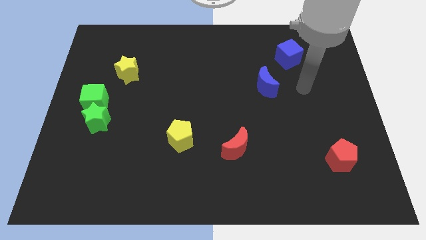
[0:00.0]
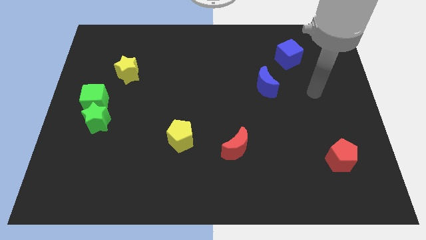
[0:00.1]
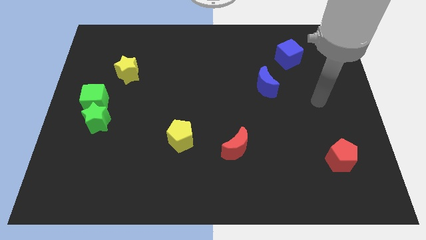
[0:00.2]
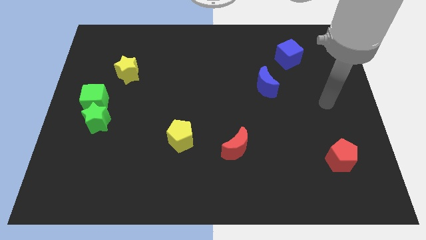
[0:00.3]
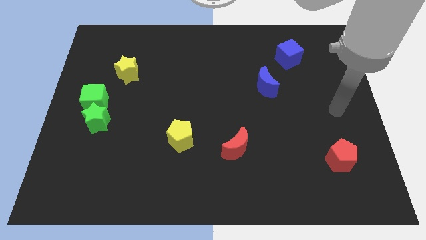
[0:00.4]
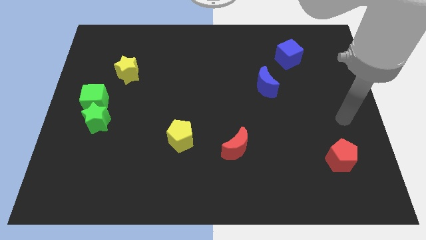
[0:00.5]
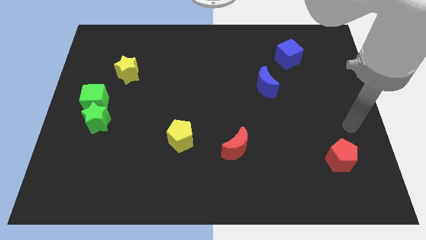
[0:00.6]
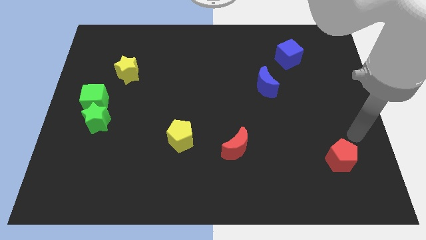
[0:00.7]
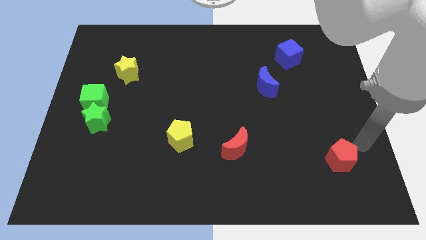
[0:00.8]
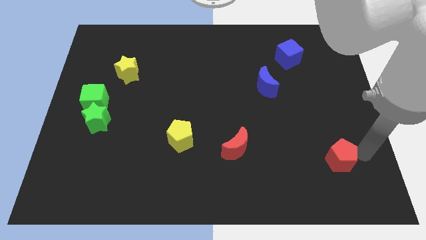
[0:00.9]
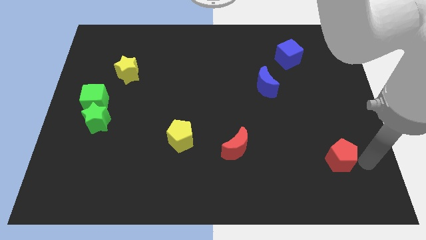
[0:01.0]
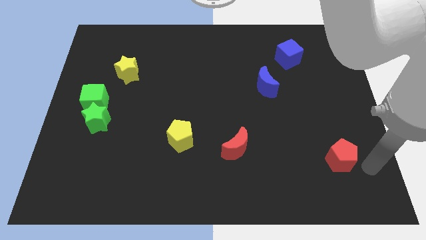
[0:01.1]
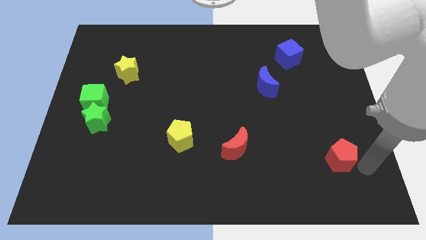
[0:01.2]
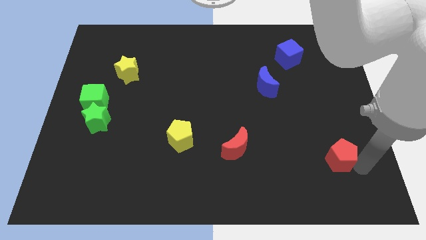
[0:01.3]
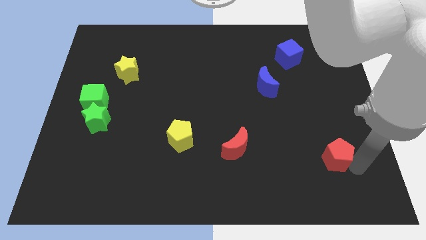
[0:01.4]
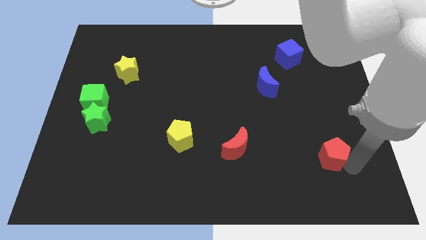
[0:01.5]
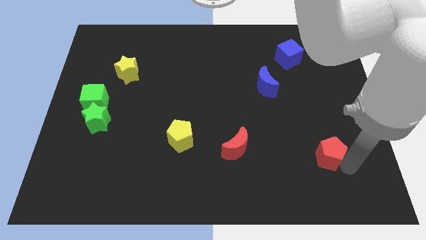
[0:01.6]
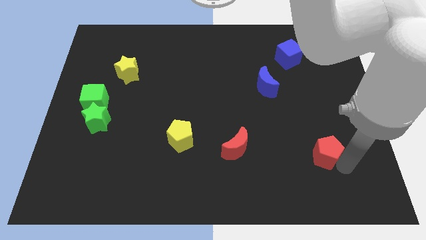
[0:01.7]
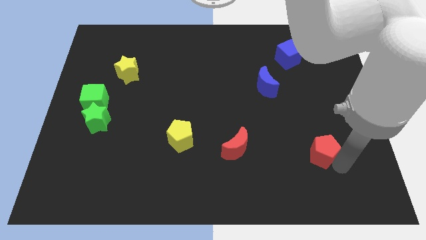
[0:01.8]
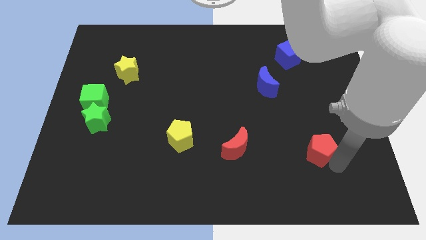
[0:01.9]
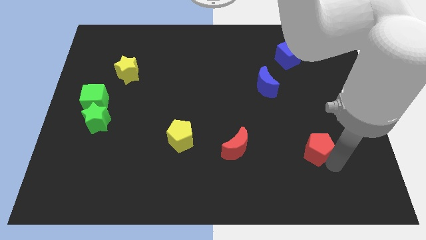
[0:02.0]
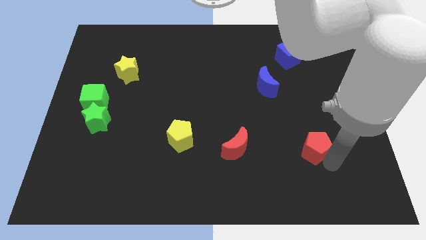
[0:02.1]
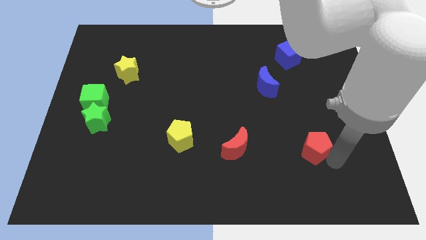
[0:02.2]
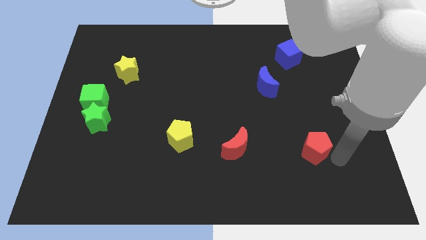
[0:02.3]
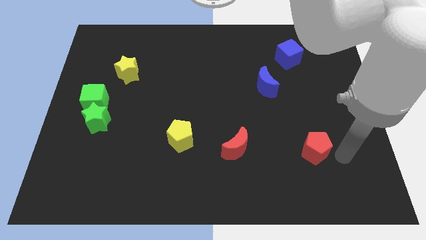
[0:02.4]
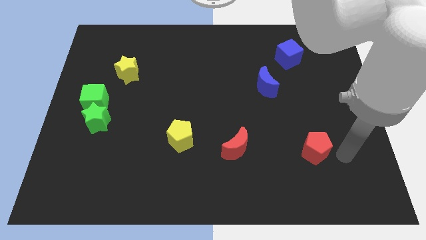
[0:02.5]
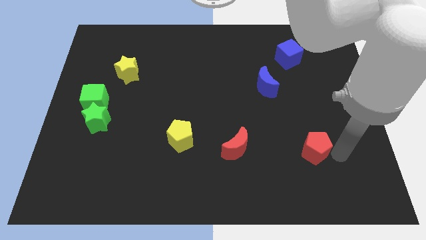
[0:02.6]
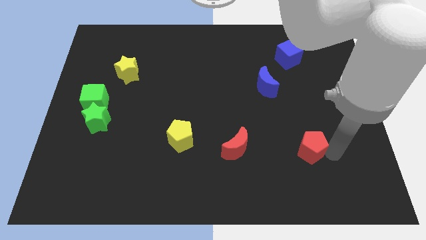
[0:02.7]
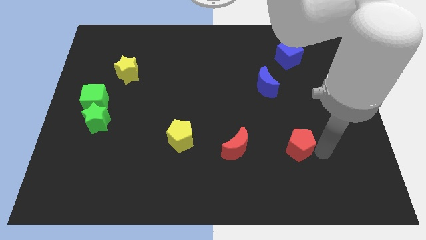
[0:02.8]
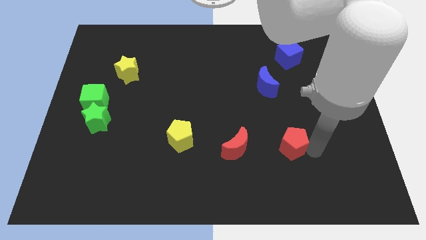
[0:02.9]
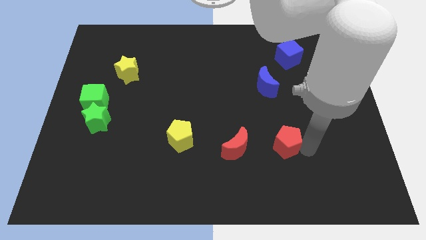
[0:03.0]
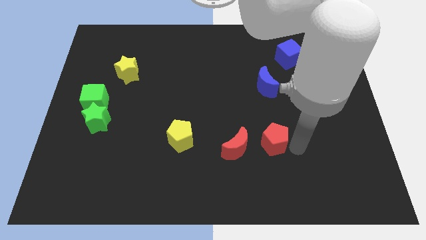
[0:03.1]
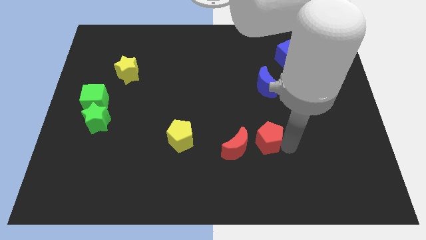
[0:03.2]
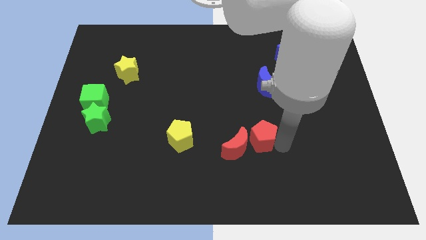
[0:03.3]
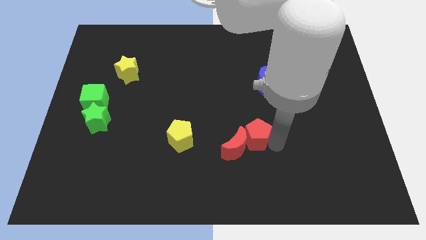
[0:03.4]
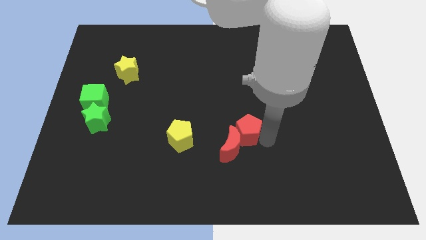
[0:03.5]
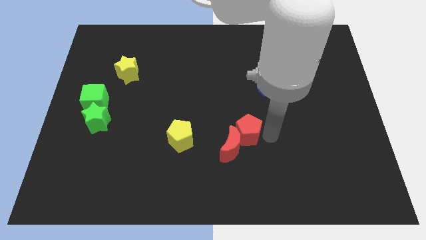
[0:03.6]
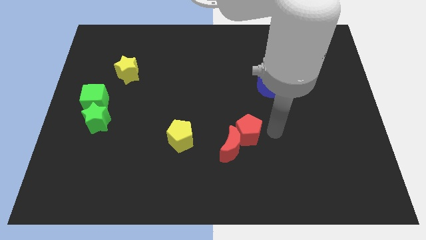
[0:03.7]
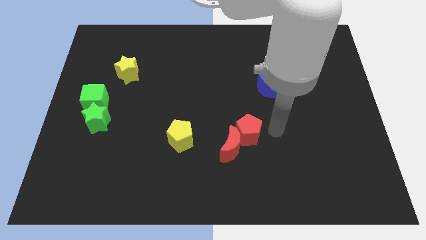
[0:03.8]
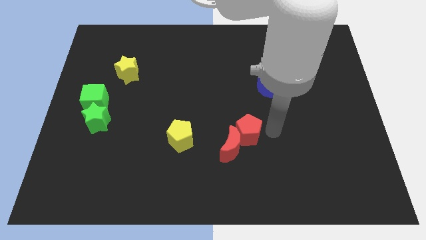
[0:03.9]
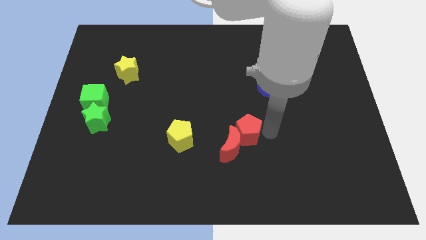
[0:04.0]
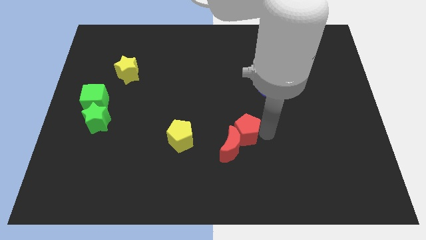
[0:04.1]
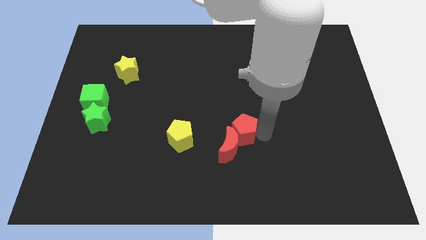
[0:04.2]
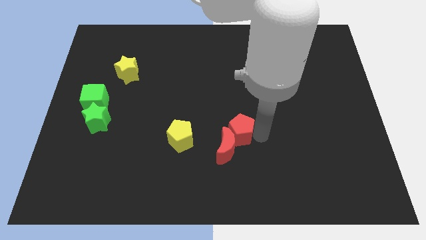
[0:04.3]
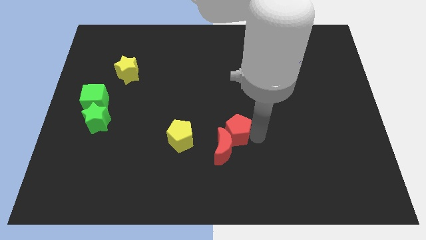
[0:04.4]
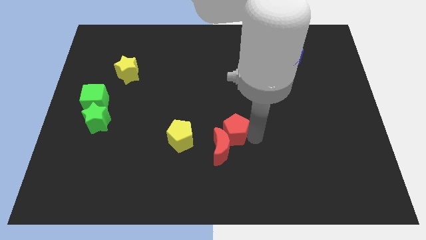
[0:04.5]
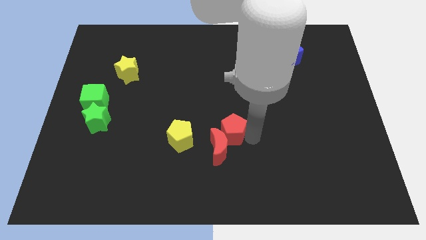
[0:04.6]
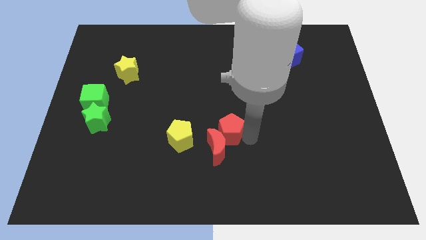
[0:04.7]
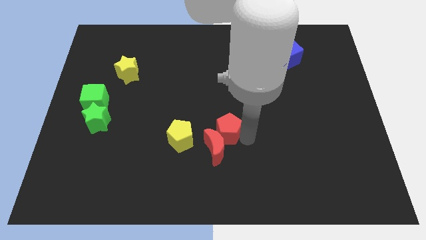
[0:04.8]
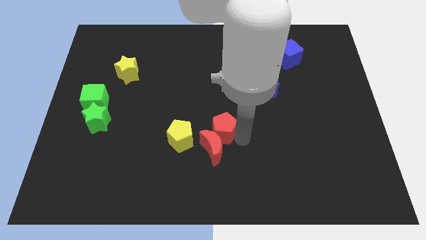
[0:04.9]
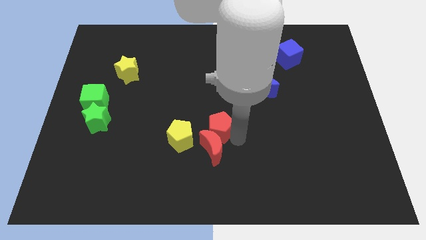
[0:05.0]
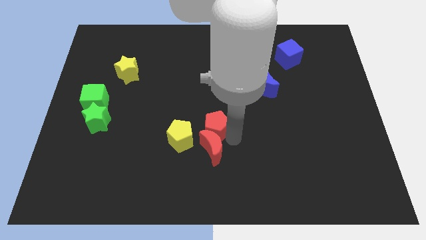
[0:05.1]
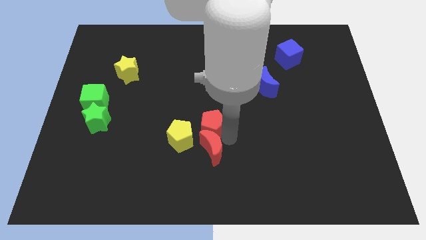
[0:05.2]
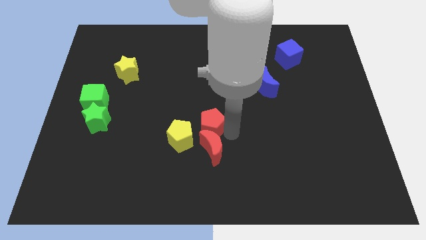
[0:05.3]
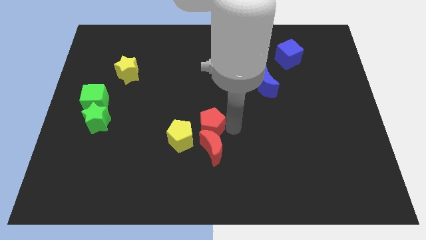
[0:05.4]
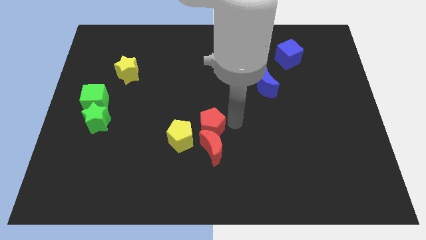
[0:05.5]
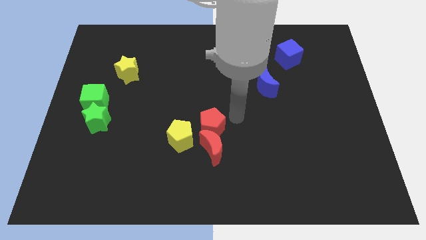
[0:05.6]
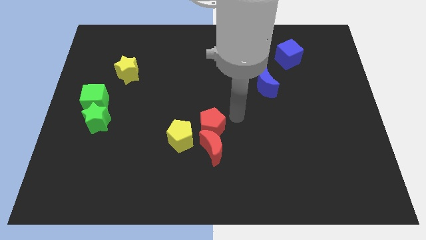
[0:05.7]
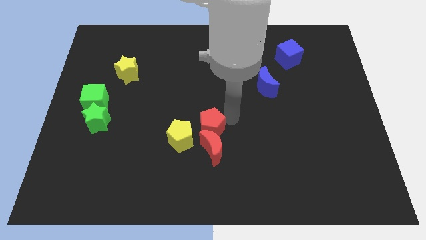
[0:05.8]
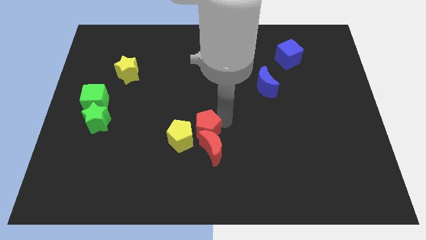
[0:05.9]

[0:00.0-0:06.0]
put the red pentagon to the yellow pentagon

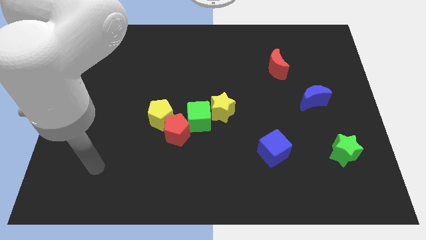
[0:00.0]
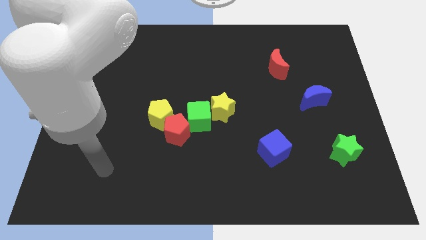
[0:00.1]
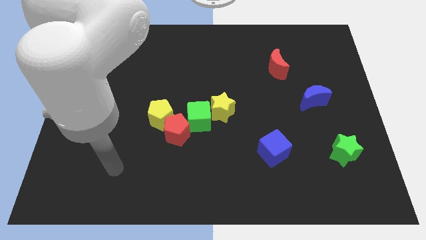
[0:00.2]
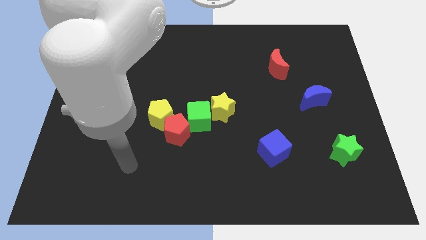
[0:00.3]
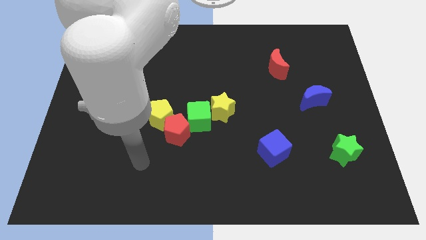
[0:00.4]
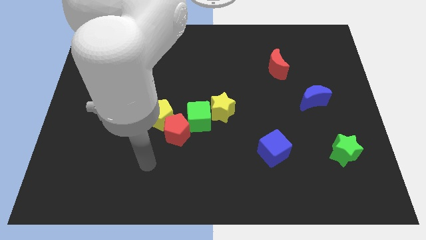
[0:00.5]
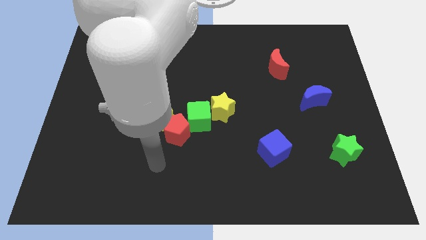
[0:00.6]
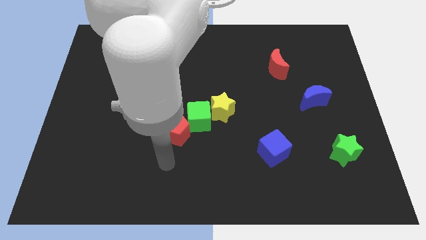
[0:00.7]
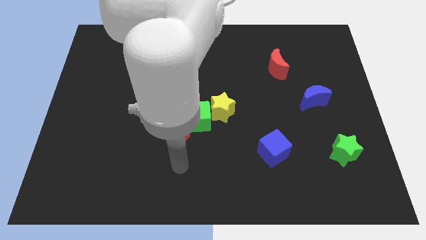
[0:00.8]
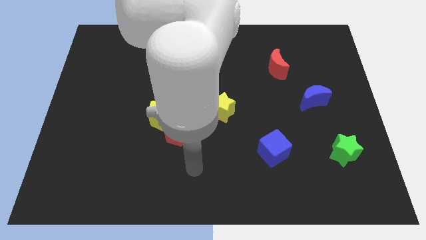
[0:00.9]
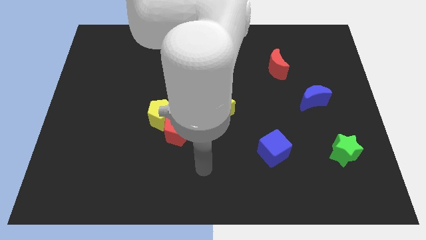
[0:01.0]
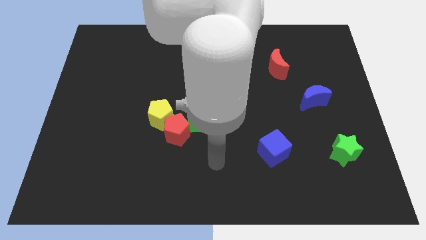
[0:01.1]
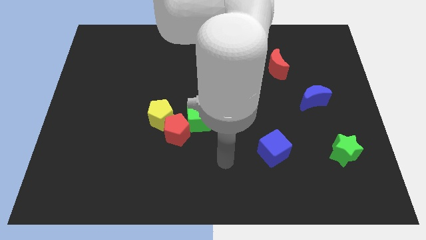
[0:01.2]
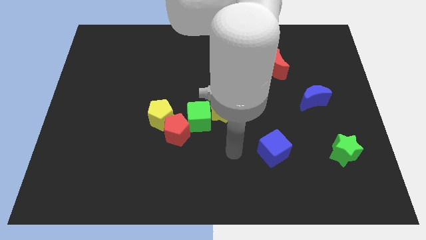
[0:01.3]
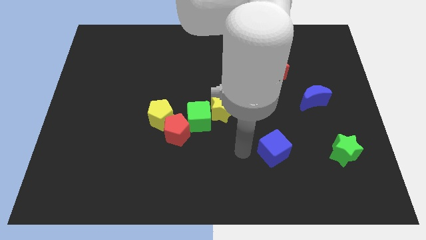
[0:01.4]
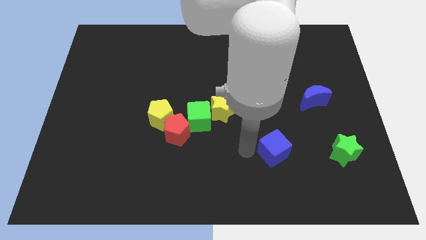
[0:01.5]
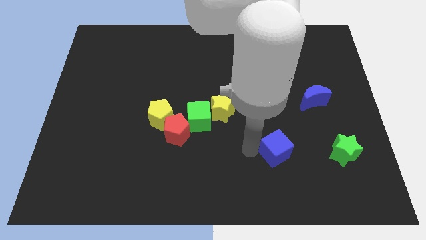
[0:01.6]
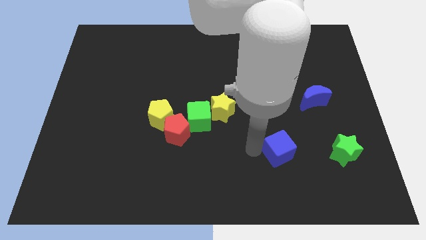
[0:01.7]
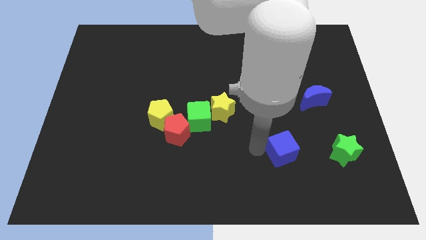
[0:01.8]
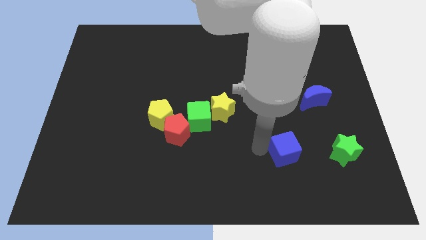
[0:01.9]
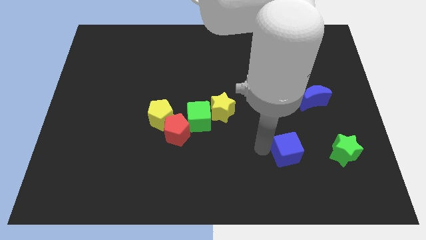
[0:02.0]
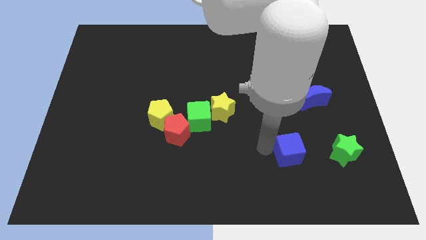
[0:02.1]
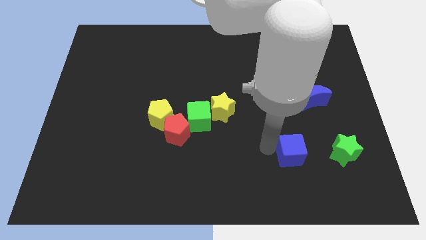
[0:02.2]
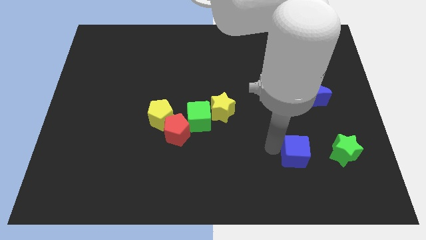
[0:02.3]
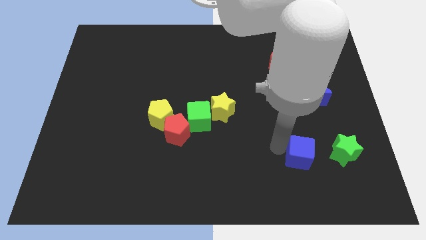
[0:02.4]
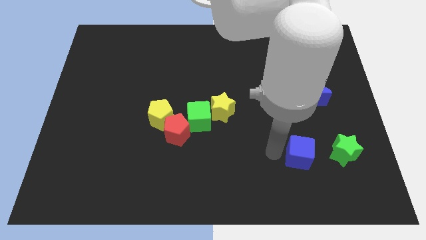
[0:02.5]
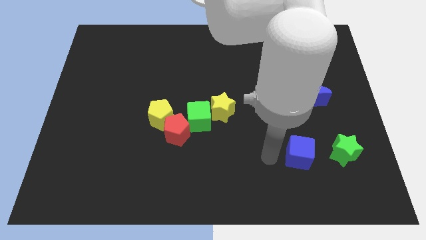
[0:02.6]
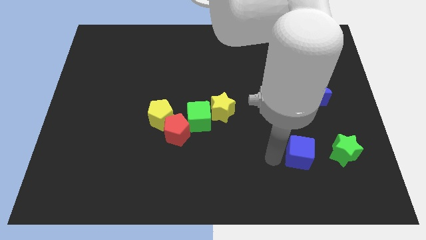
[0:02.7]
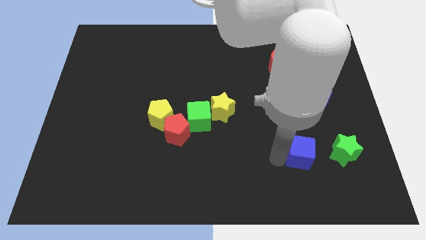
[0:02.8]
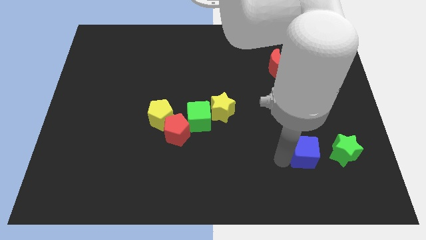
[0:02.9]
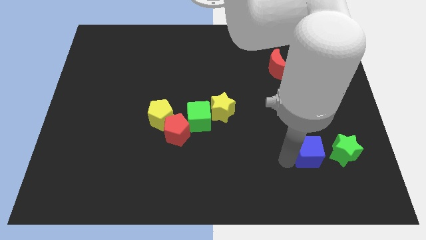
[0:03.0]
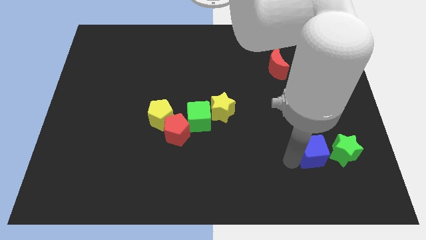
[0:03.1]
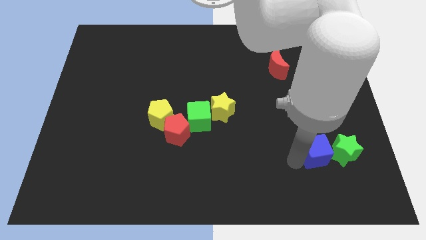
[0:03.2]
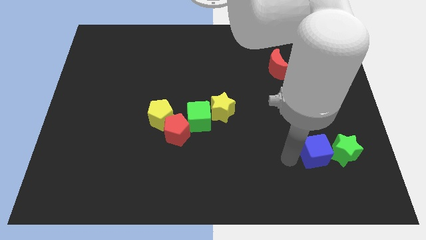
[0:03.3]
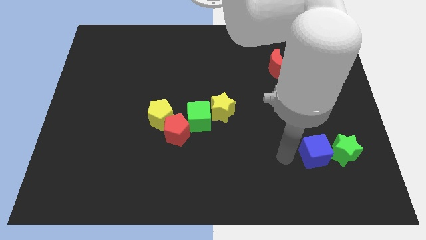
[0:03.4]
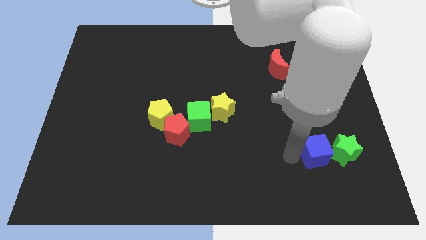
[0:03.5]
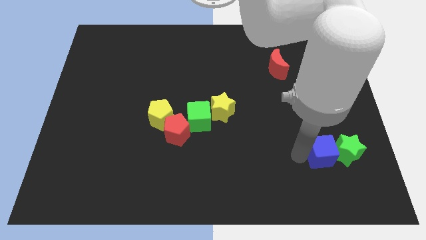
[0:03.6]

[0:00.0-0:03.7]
push the blue cube next to the green star
